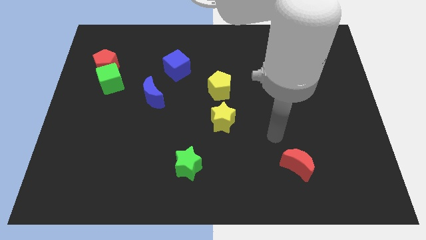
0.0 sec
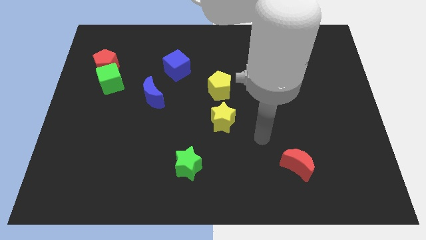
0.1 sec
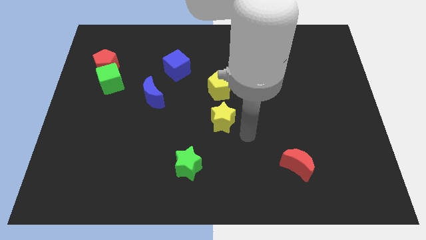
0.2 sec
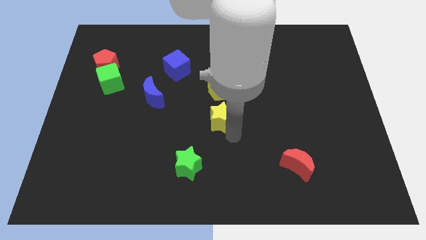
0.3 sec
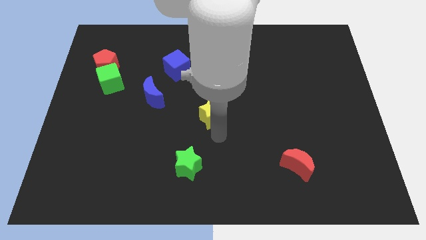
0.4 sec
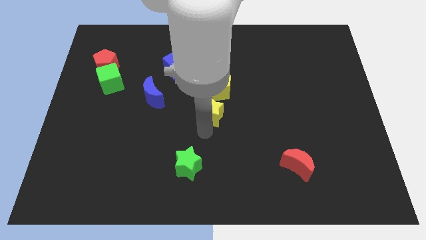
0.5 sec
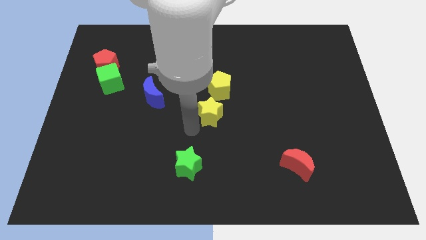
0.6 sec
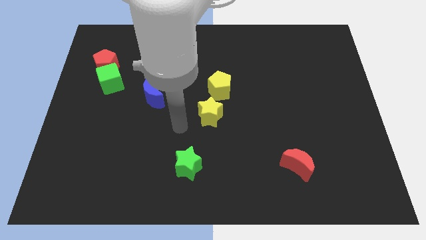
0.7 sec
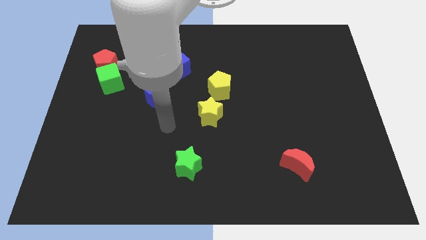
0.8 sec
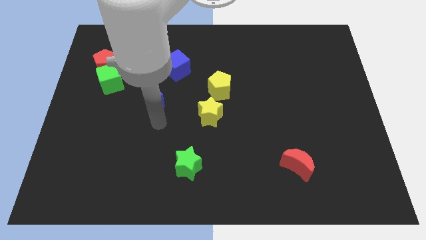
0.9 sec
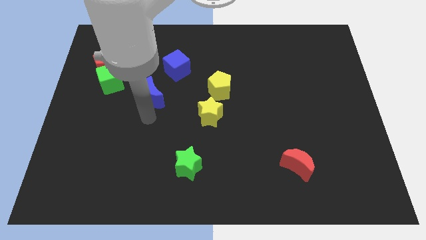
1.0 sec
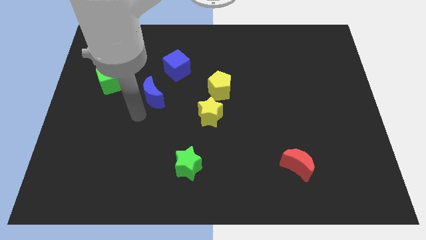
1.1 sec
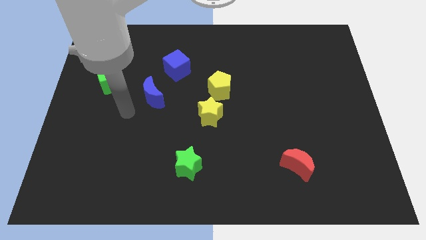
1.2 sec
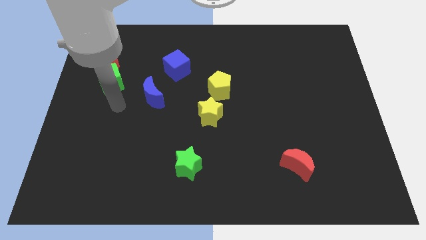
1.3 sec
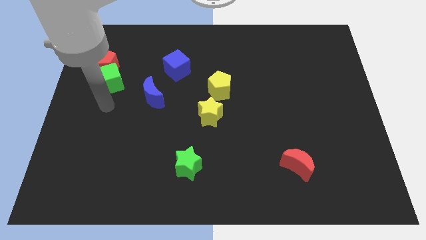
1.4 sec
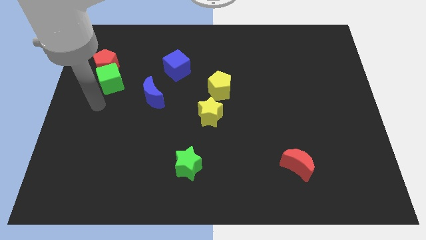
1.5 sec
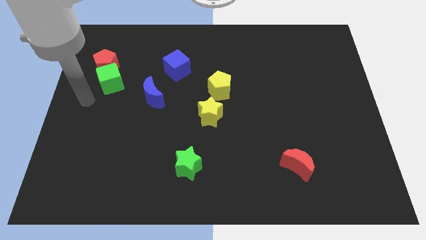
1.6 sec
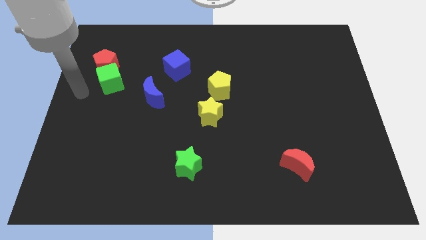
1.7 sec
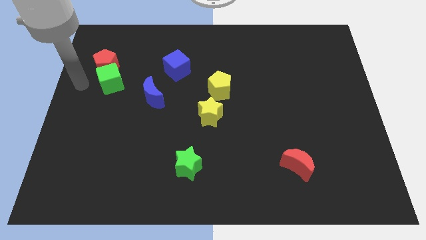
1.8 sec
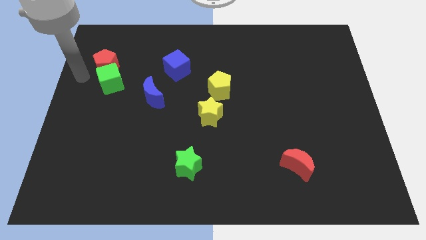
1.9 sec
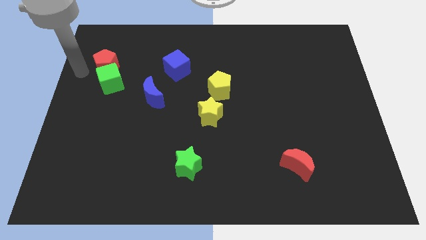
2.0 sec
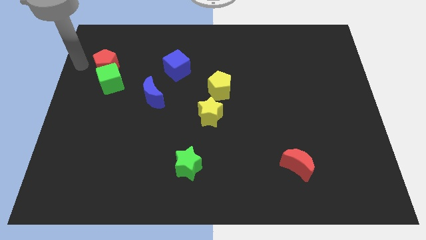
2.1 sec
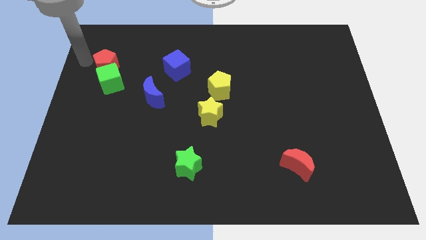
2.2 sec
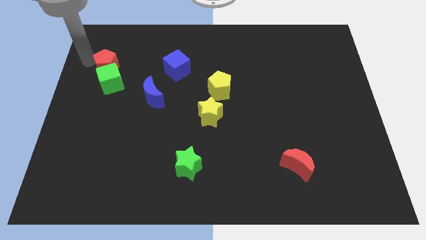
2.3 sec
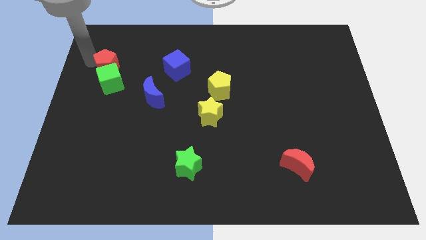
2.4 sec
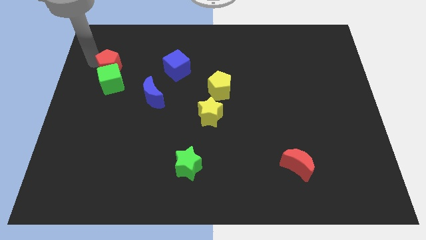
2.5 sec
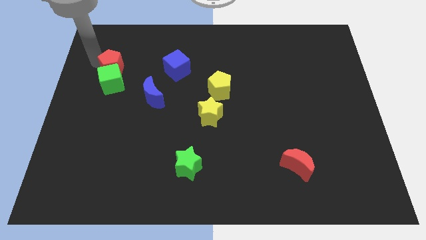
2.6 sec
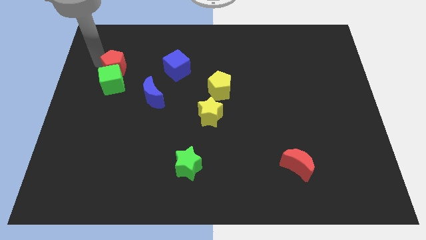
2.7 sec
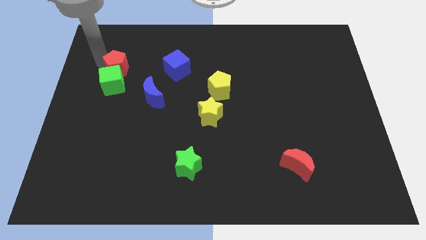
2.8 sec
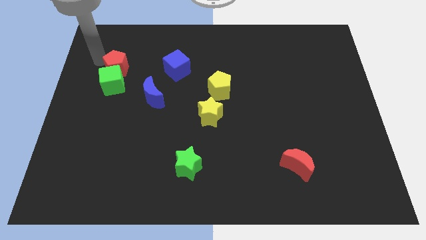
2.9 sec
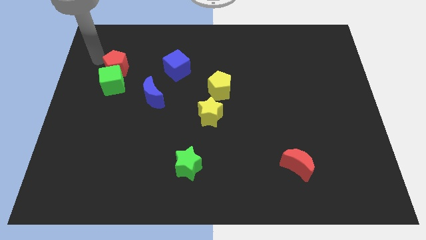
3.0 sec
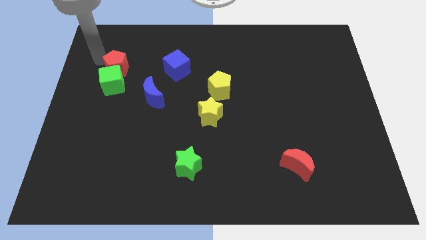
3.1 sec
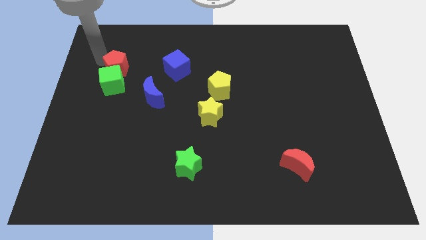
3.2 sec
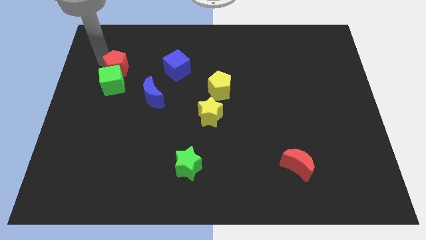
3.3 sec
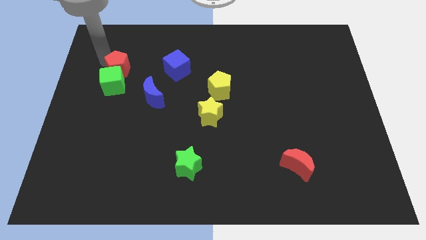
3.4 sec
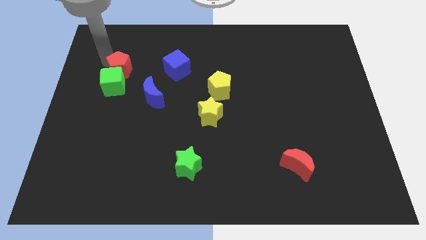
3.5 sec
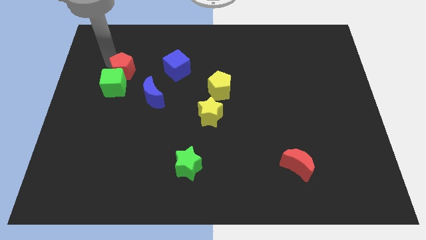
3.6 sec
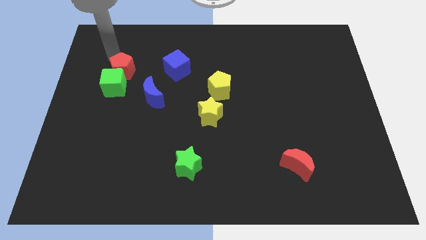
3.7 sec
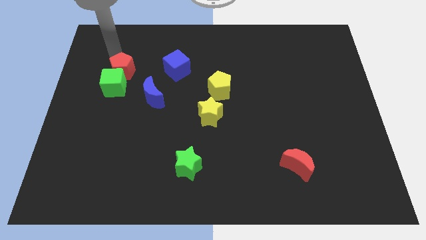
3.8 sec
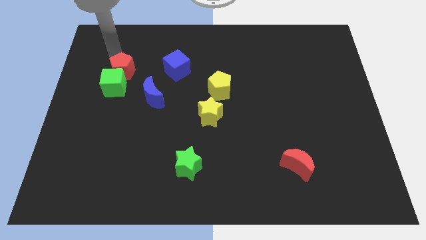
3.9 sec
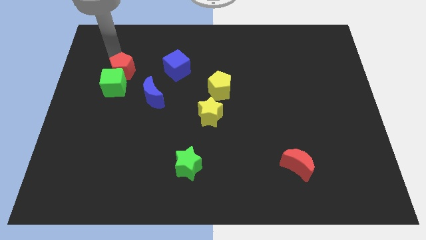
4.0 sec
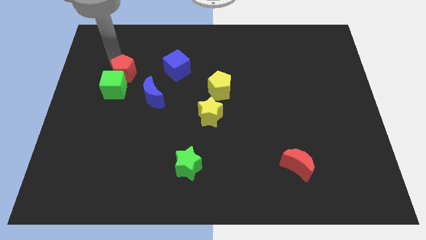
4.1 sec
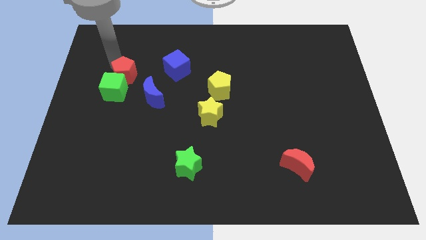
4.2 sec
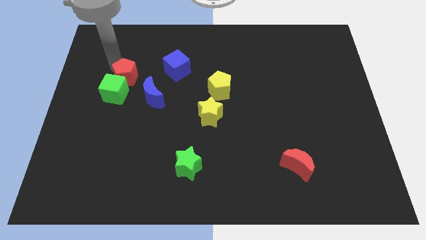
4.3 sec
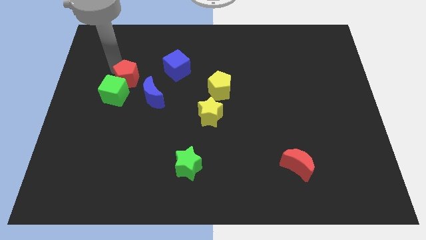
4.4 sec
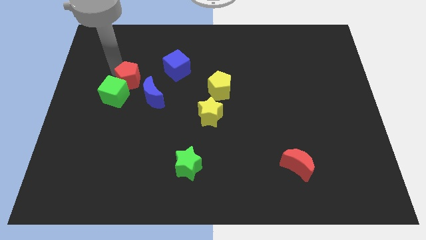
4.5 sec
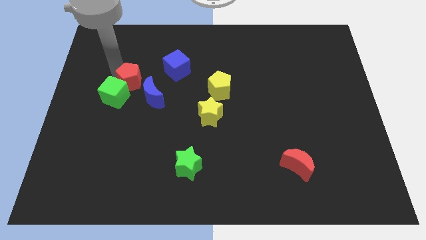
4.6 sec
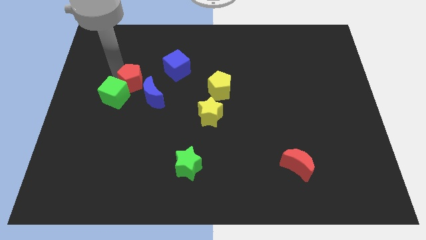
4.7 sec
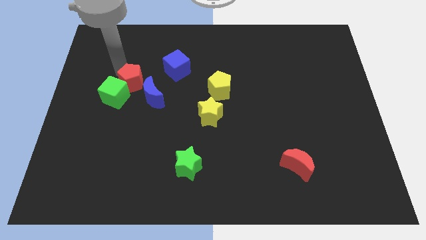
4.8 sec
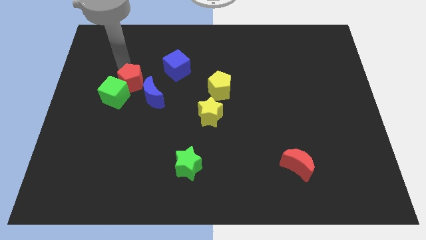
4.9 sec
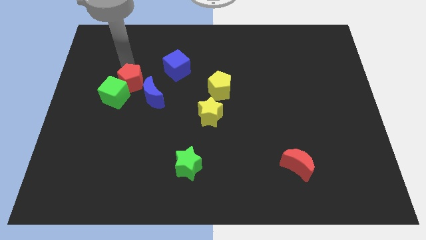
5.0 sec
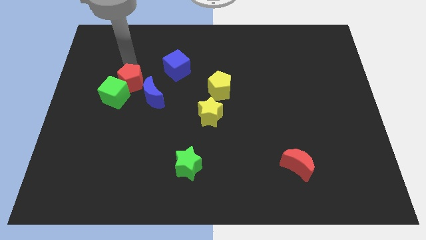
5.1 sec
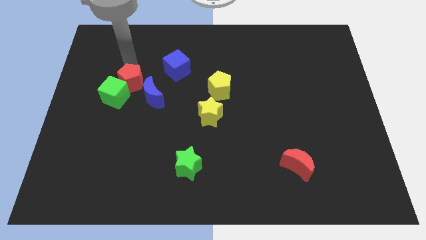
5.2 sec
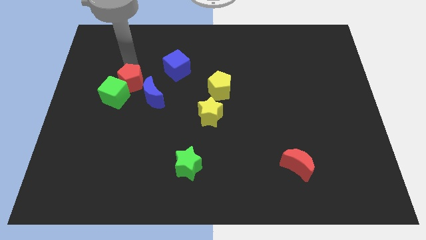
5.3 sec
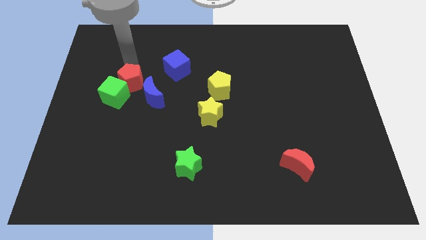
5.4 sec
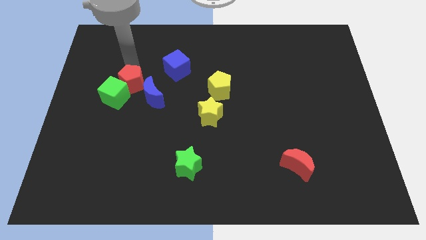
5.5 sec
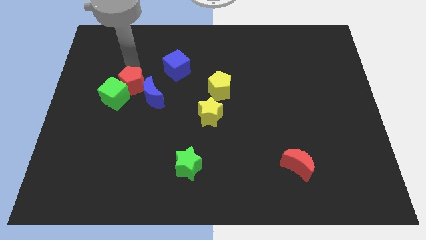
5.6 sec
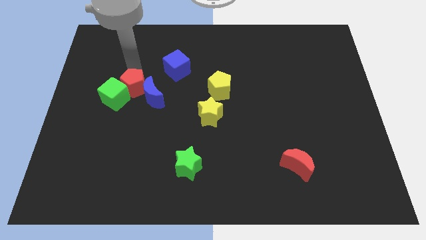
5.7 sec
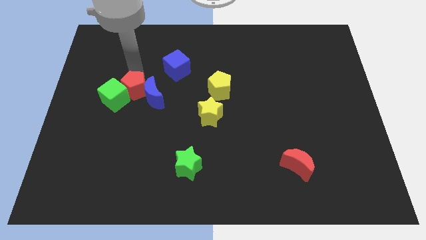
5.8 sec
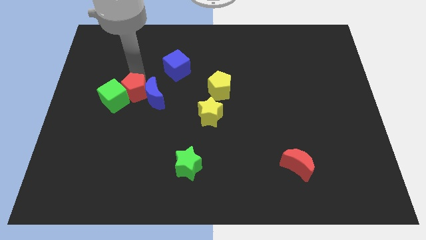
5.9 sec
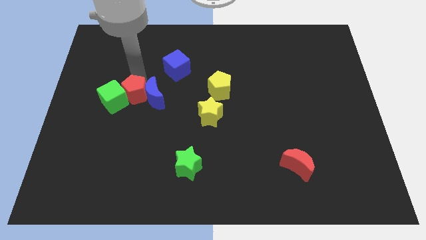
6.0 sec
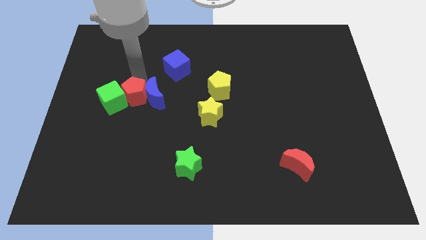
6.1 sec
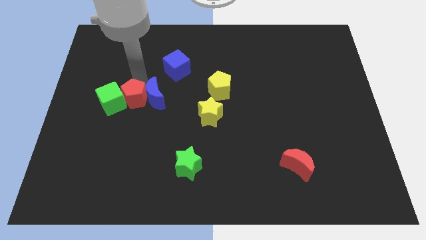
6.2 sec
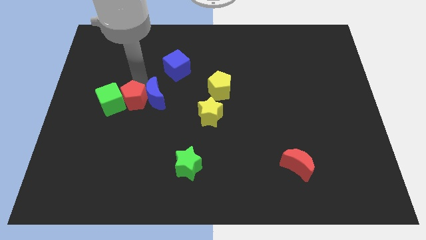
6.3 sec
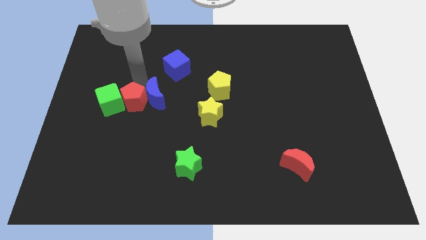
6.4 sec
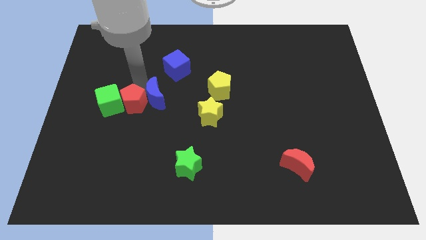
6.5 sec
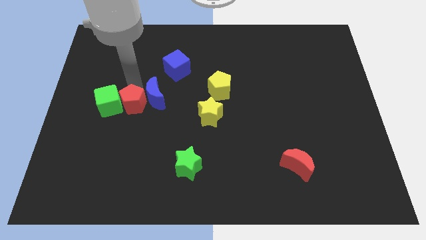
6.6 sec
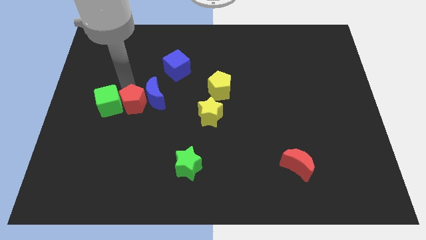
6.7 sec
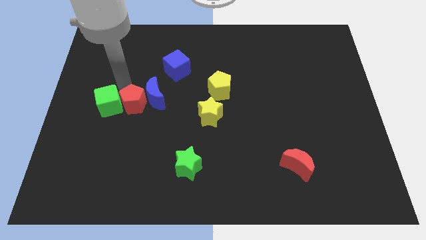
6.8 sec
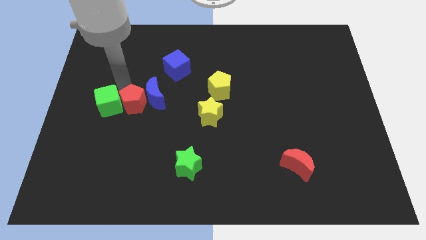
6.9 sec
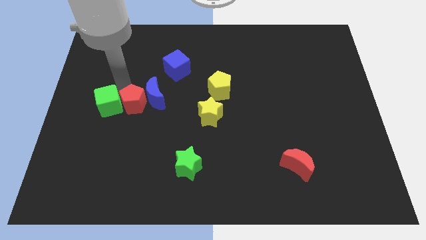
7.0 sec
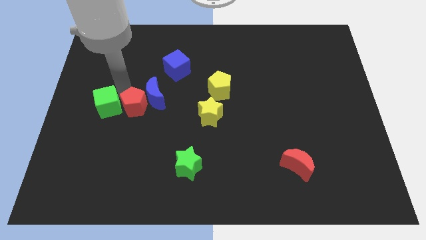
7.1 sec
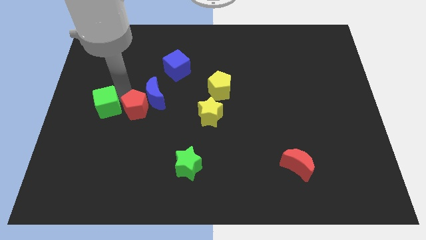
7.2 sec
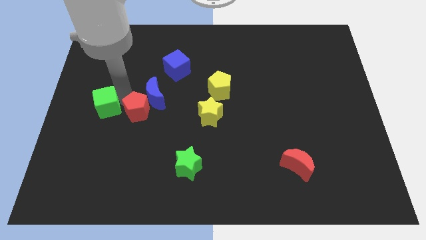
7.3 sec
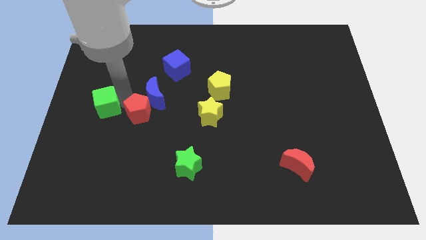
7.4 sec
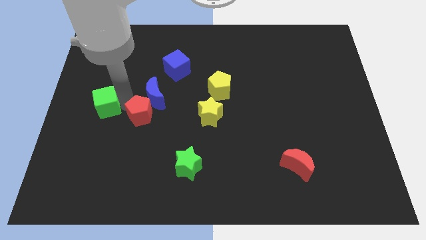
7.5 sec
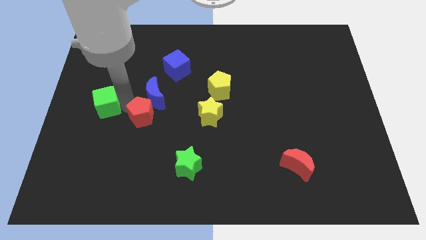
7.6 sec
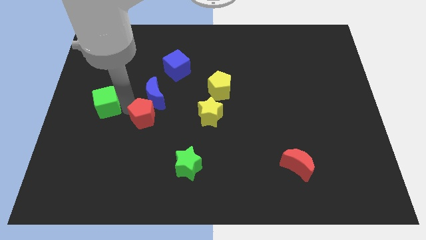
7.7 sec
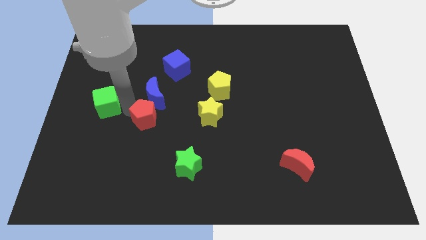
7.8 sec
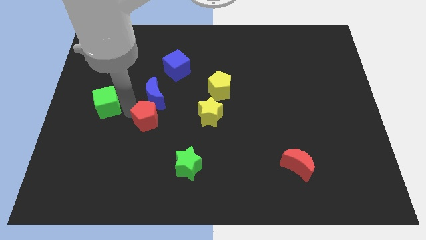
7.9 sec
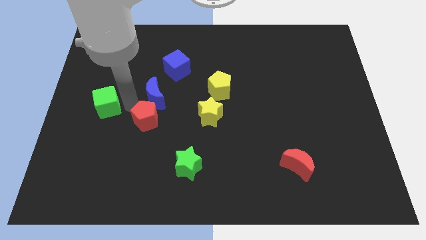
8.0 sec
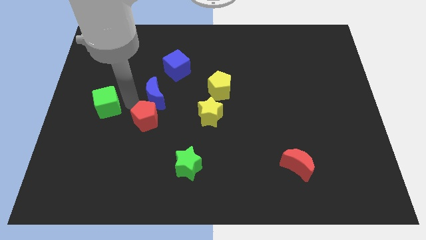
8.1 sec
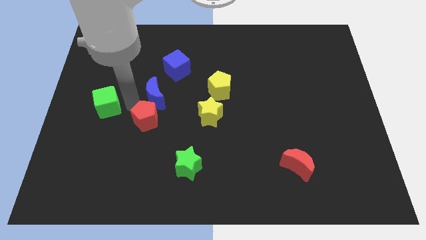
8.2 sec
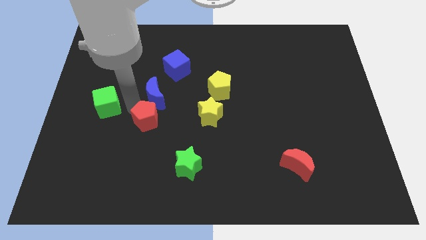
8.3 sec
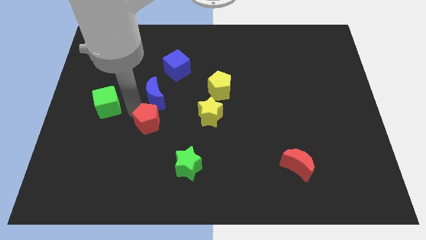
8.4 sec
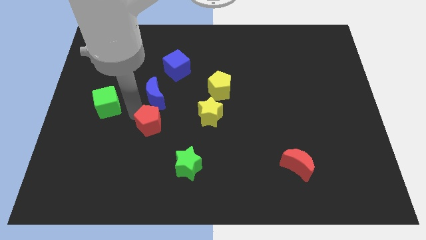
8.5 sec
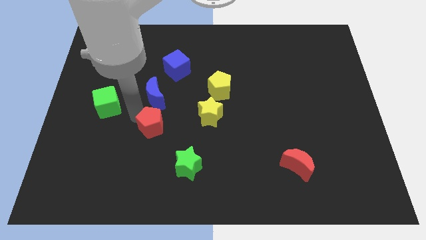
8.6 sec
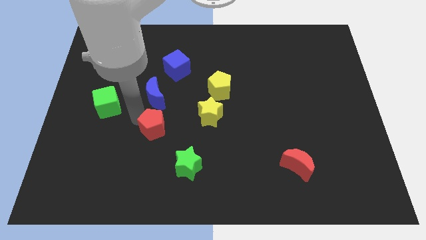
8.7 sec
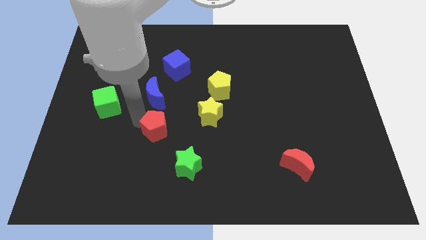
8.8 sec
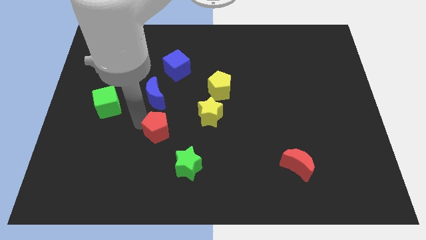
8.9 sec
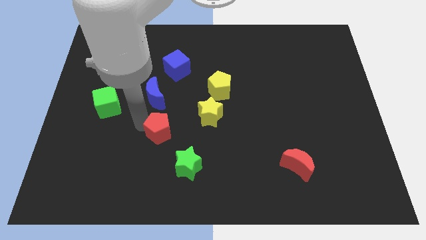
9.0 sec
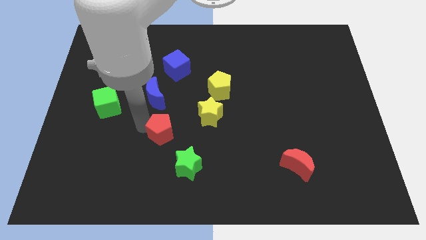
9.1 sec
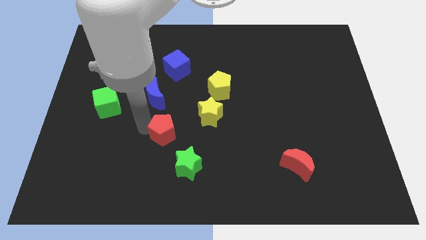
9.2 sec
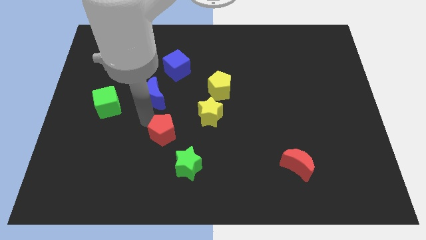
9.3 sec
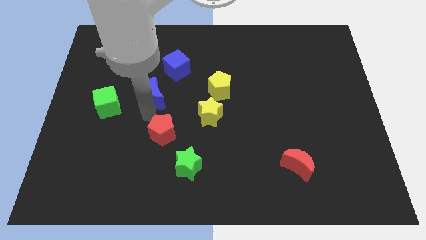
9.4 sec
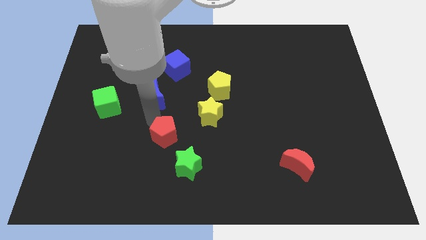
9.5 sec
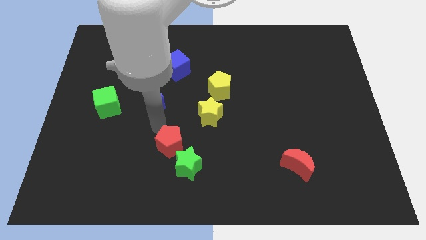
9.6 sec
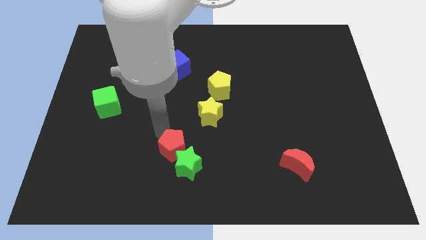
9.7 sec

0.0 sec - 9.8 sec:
push the red pentagon to the green star
